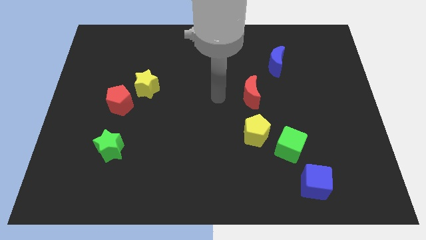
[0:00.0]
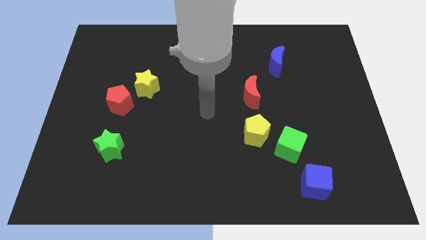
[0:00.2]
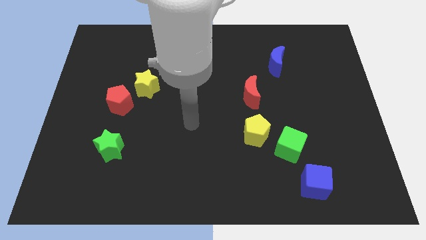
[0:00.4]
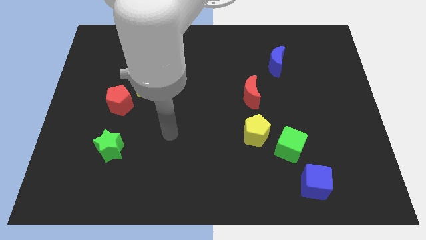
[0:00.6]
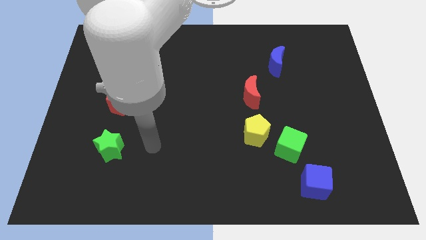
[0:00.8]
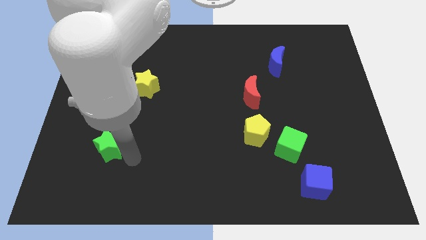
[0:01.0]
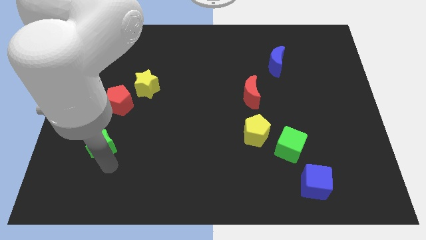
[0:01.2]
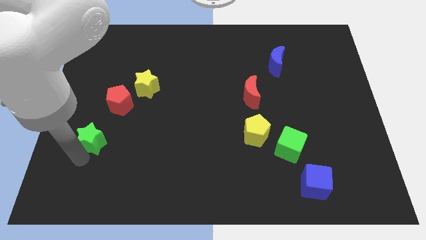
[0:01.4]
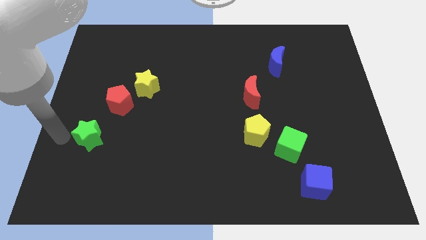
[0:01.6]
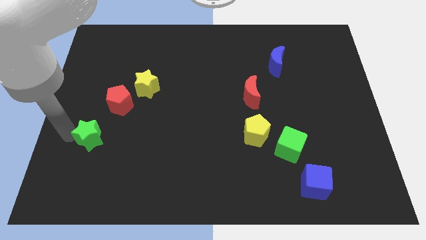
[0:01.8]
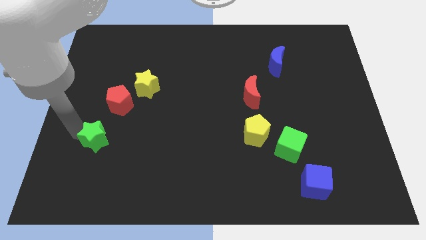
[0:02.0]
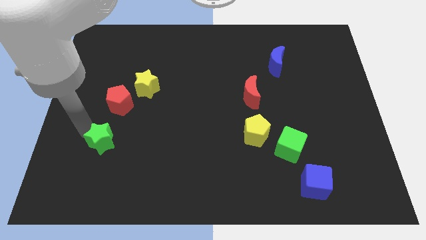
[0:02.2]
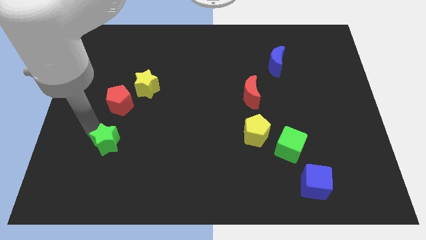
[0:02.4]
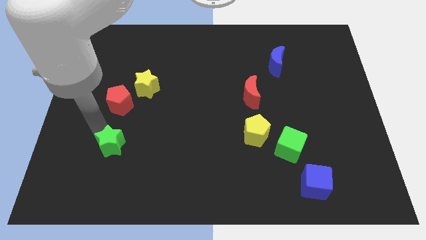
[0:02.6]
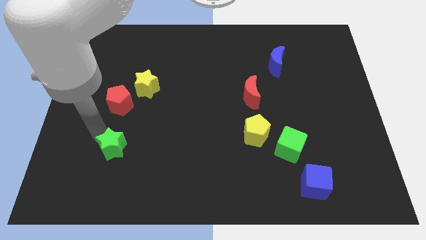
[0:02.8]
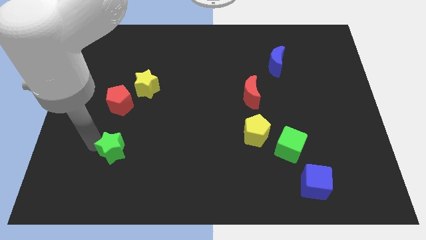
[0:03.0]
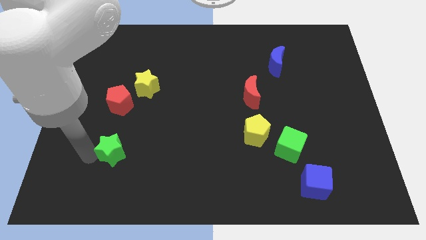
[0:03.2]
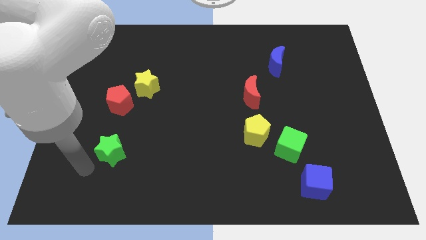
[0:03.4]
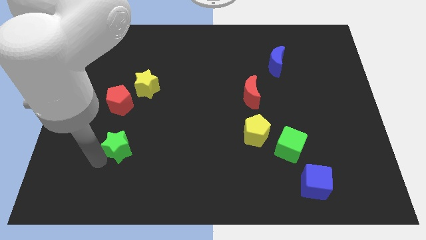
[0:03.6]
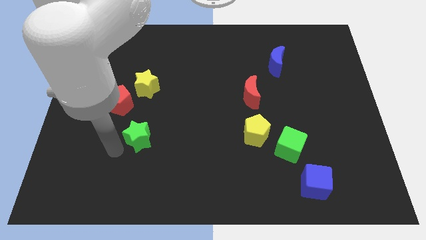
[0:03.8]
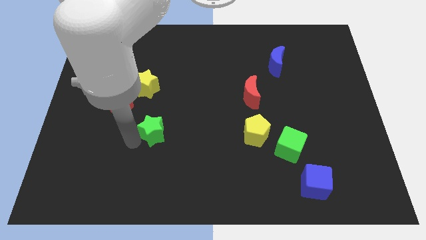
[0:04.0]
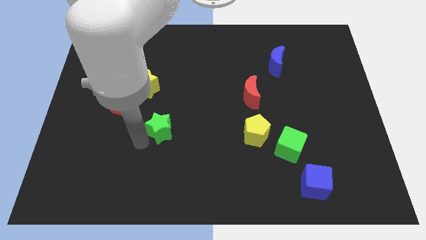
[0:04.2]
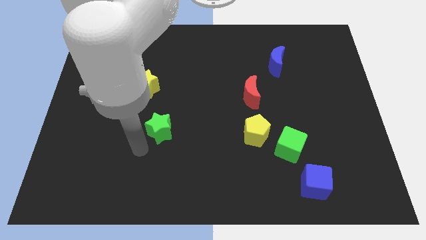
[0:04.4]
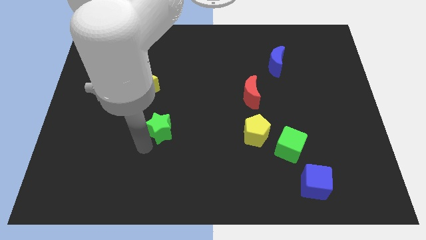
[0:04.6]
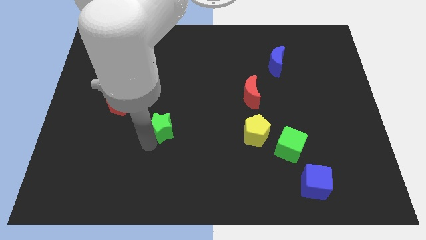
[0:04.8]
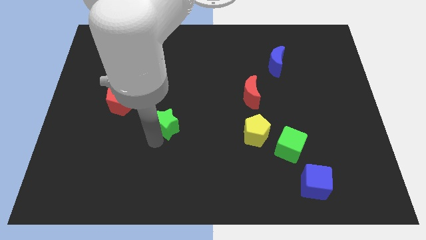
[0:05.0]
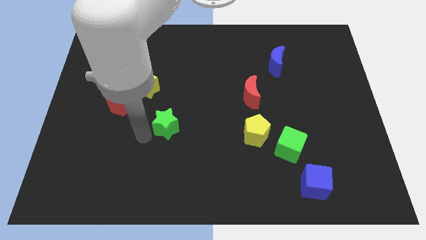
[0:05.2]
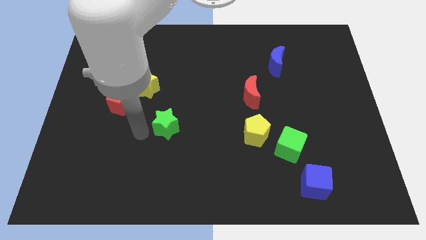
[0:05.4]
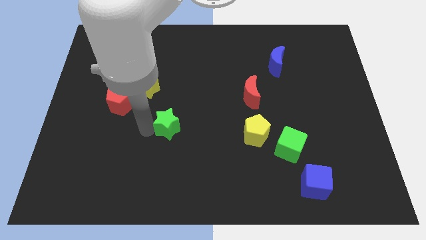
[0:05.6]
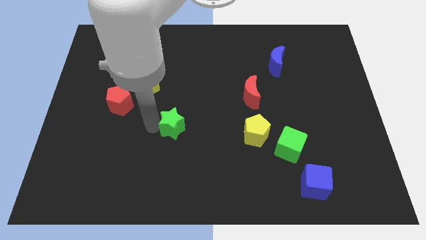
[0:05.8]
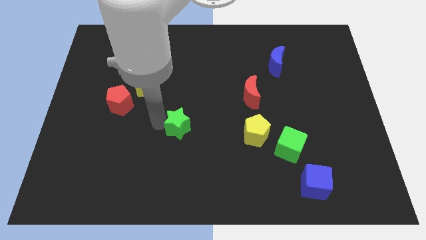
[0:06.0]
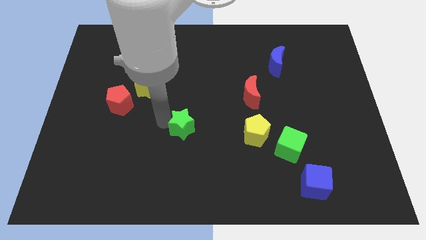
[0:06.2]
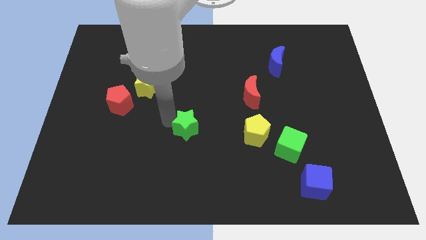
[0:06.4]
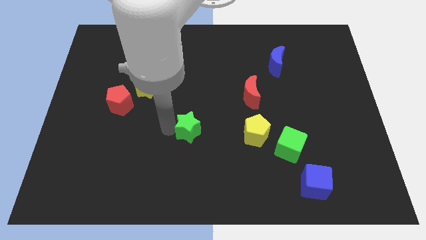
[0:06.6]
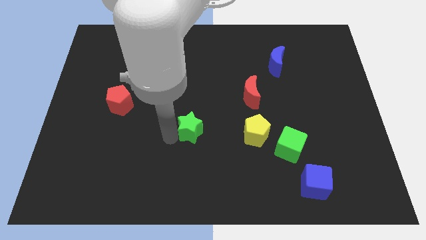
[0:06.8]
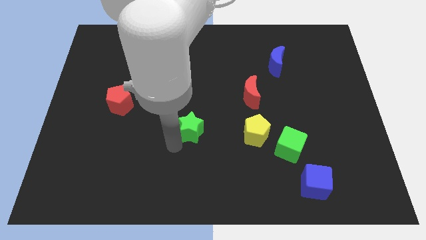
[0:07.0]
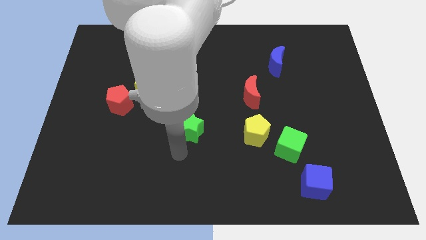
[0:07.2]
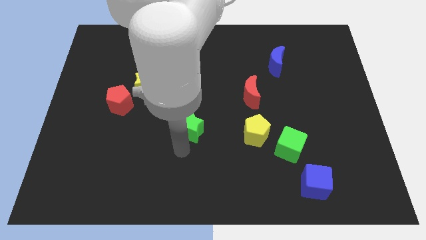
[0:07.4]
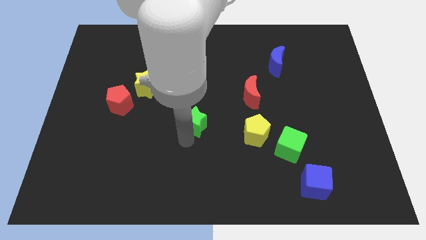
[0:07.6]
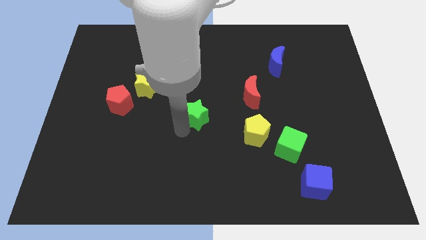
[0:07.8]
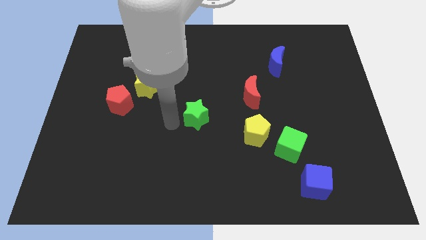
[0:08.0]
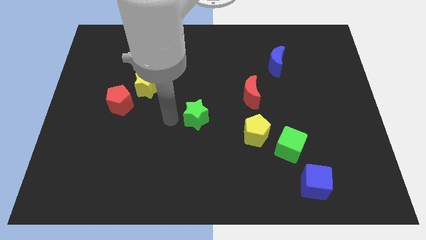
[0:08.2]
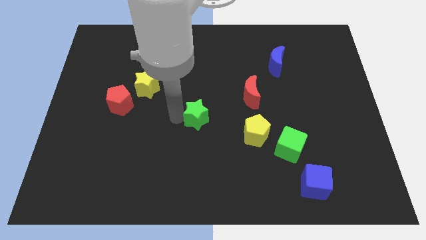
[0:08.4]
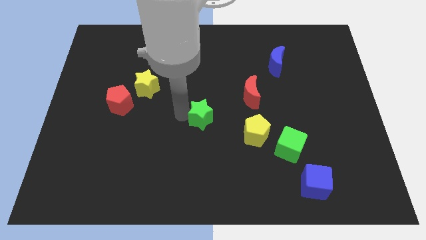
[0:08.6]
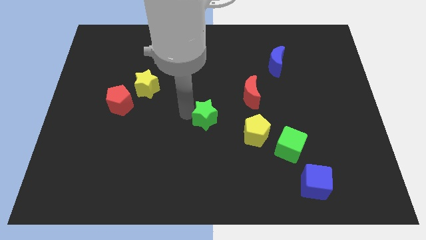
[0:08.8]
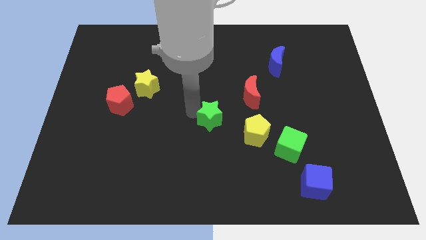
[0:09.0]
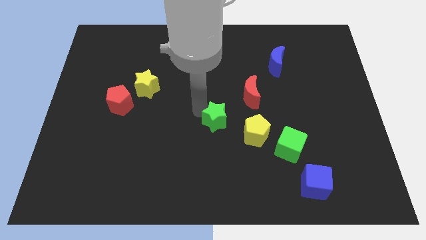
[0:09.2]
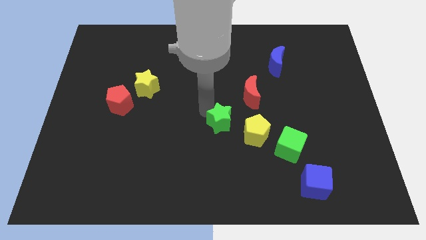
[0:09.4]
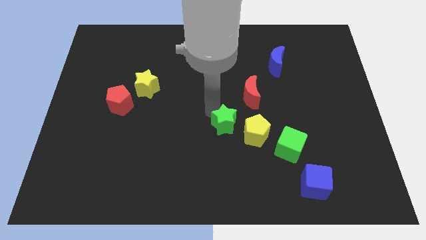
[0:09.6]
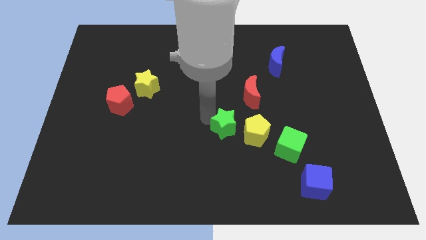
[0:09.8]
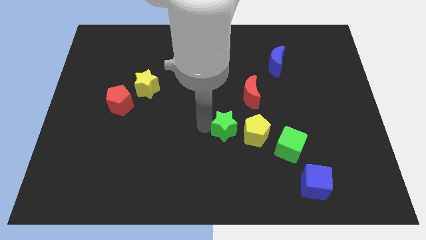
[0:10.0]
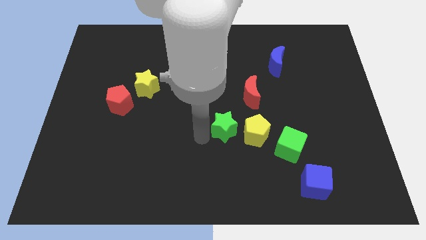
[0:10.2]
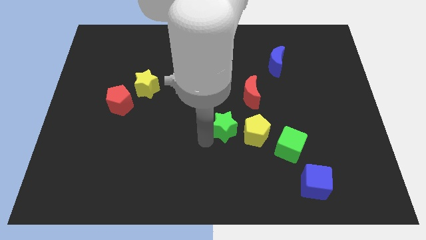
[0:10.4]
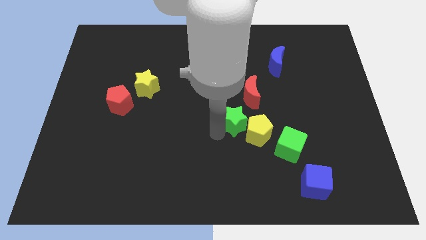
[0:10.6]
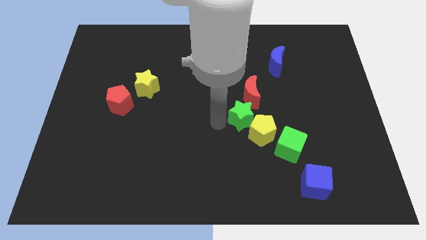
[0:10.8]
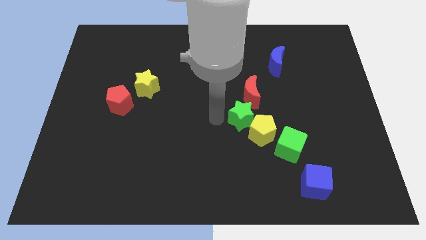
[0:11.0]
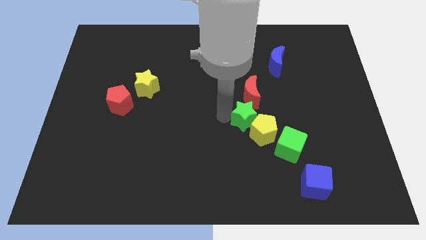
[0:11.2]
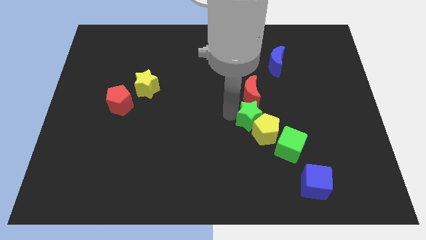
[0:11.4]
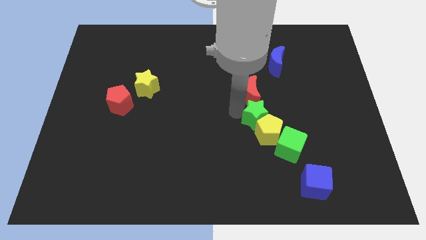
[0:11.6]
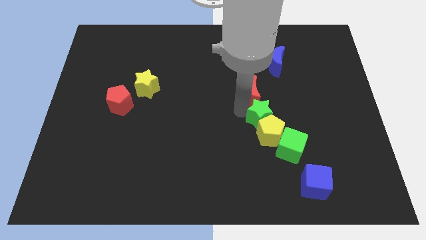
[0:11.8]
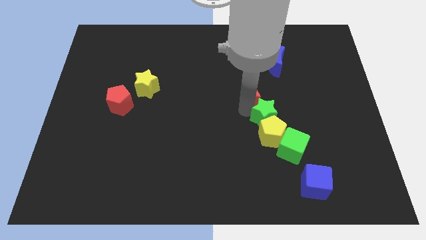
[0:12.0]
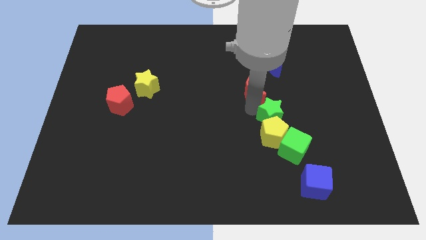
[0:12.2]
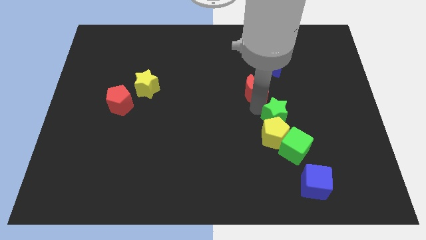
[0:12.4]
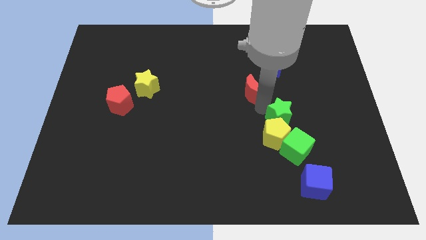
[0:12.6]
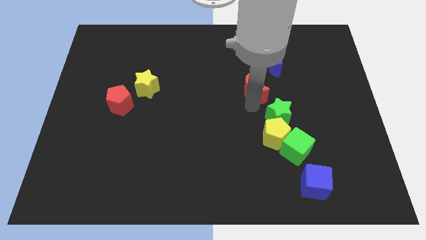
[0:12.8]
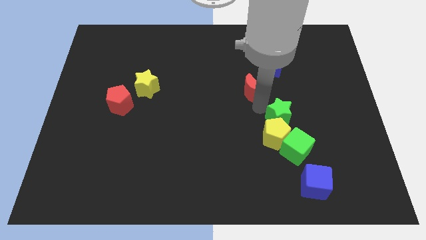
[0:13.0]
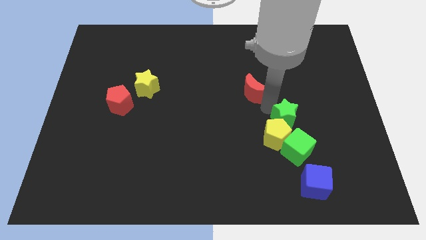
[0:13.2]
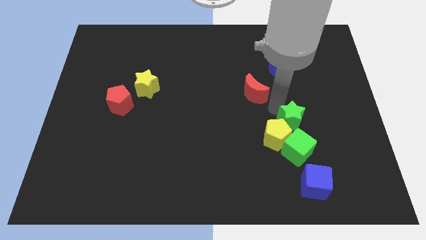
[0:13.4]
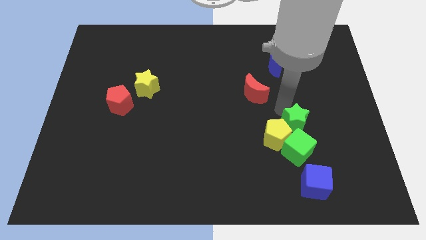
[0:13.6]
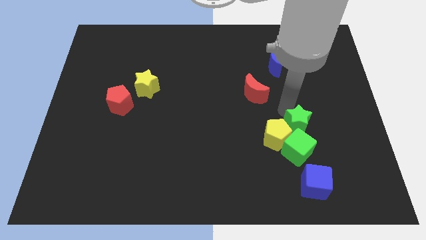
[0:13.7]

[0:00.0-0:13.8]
put the green star to the top right side of the green cube
